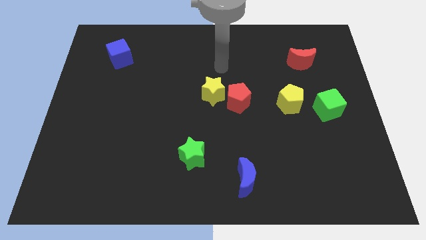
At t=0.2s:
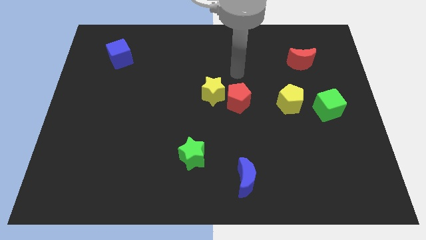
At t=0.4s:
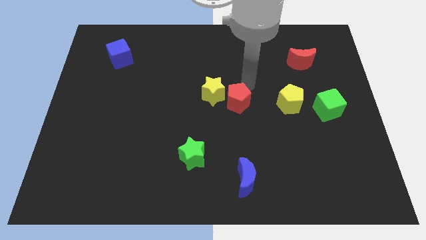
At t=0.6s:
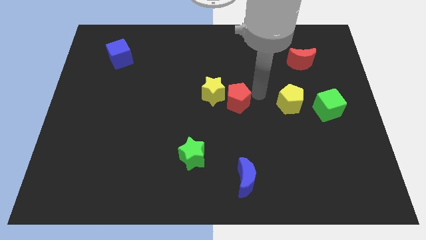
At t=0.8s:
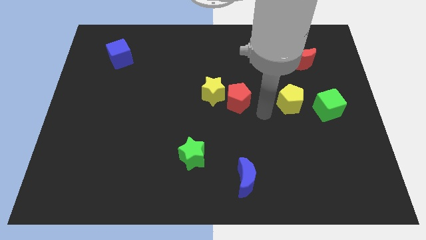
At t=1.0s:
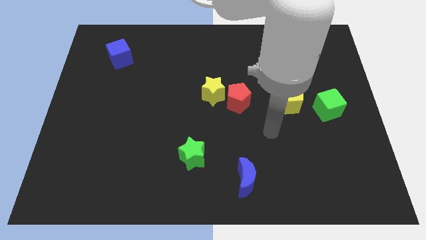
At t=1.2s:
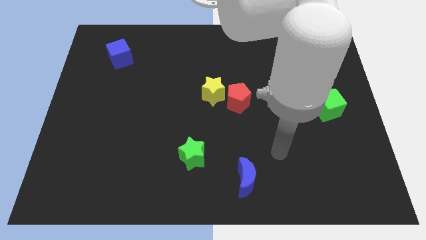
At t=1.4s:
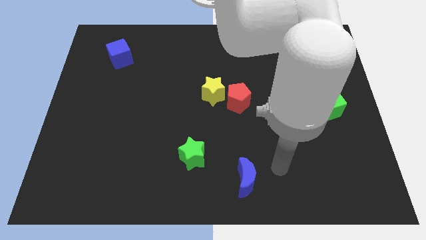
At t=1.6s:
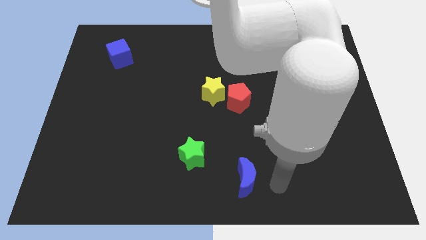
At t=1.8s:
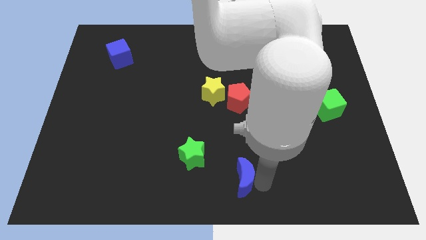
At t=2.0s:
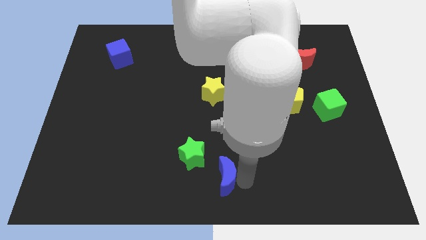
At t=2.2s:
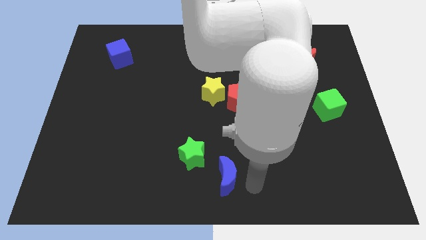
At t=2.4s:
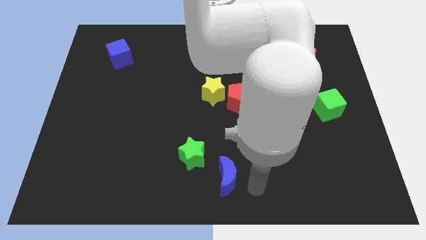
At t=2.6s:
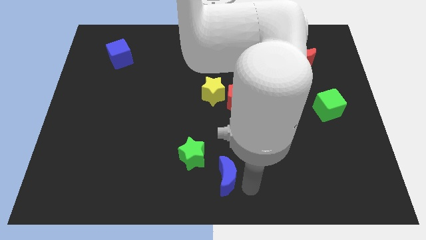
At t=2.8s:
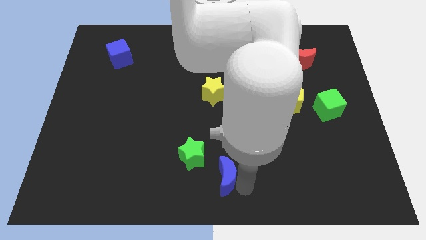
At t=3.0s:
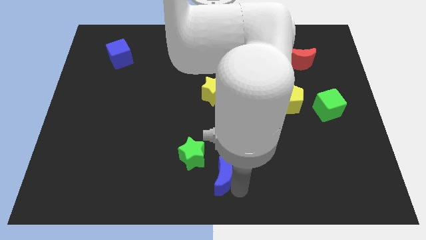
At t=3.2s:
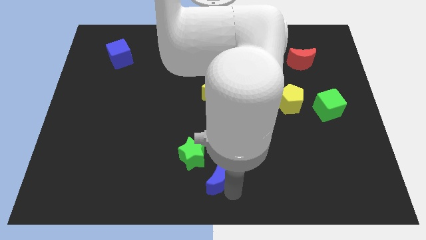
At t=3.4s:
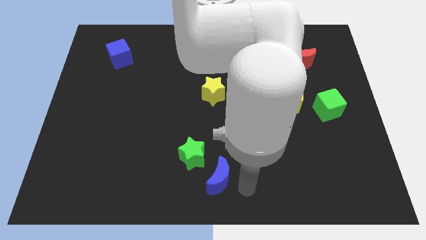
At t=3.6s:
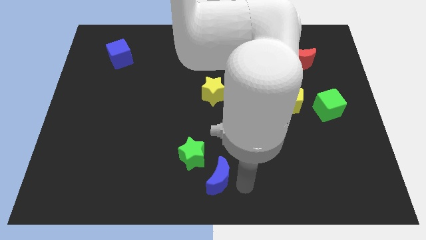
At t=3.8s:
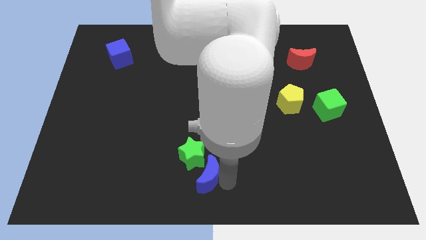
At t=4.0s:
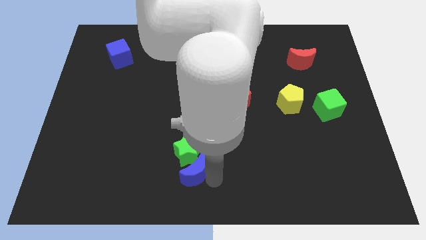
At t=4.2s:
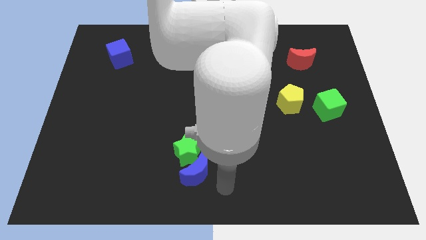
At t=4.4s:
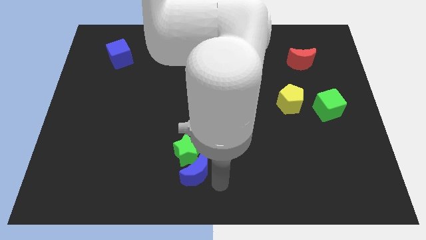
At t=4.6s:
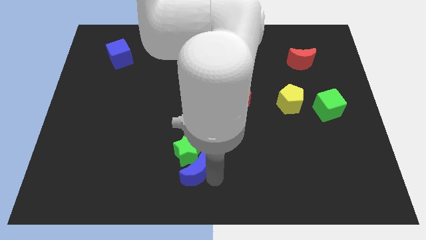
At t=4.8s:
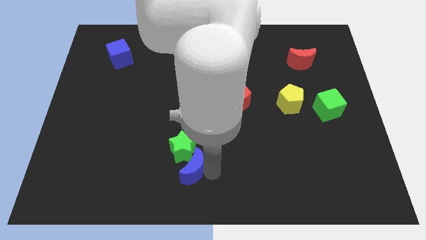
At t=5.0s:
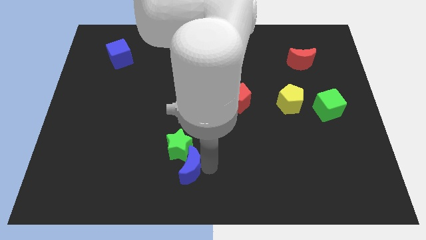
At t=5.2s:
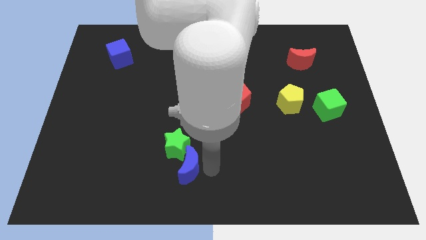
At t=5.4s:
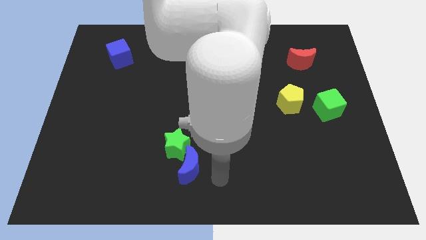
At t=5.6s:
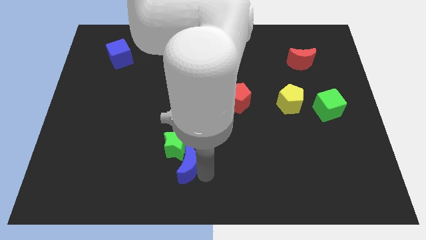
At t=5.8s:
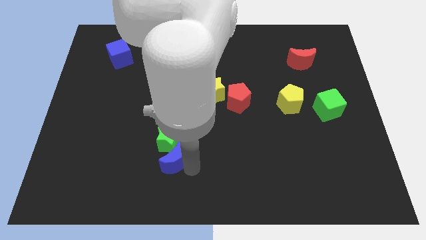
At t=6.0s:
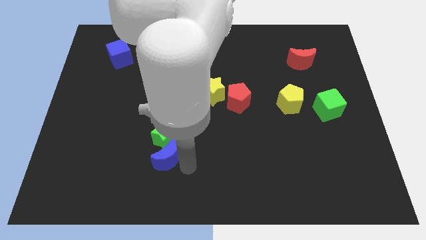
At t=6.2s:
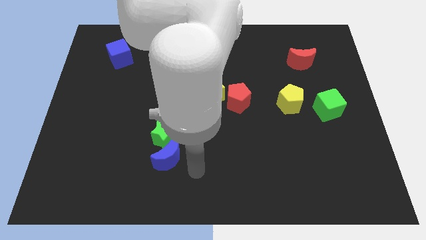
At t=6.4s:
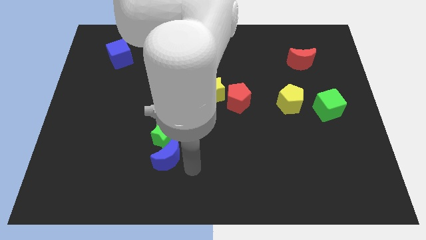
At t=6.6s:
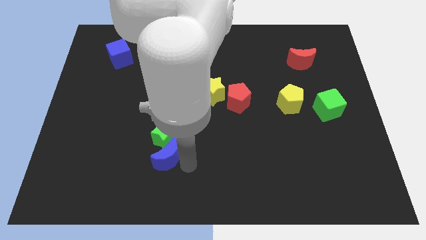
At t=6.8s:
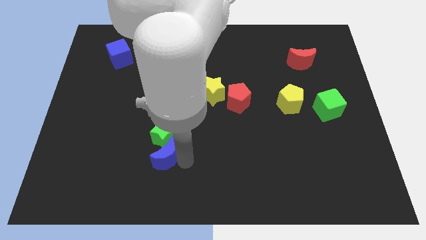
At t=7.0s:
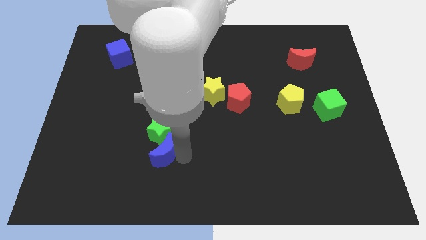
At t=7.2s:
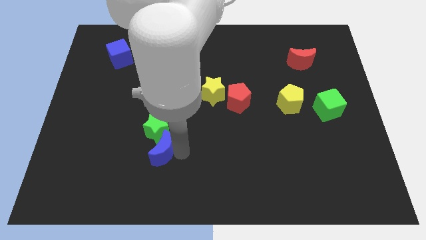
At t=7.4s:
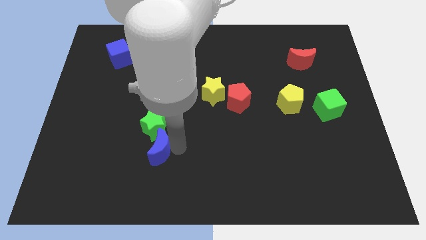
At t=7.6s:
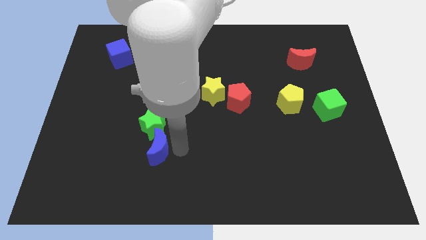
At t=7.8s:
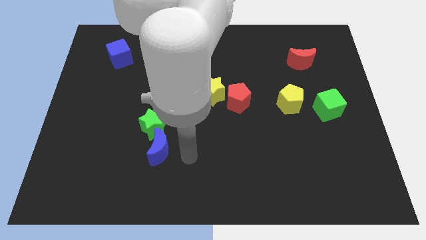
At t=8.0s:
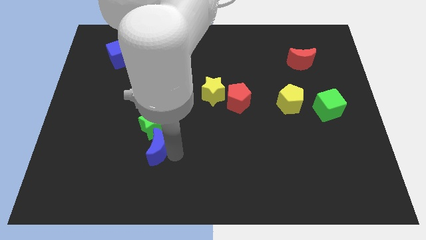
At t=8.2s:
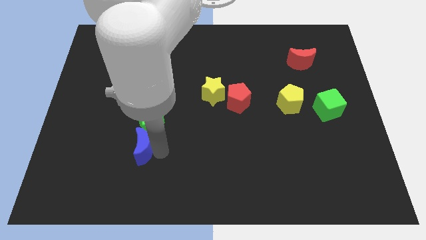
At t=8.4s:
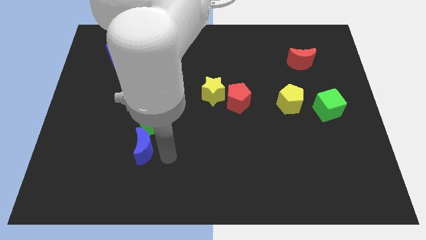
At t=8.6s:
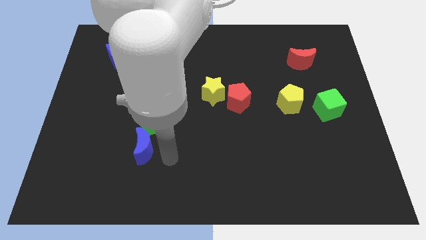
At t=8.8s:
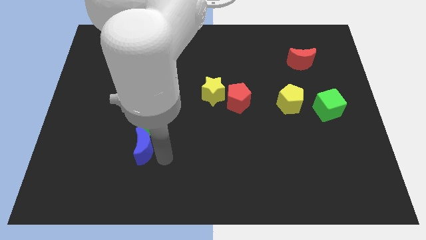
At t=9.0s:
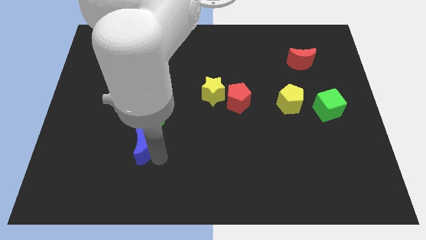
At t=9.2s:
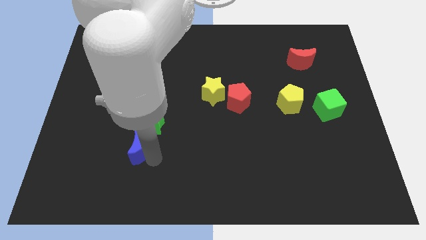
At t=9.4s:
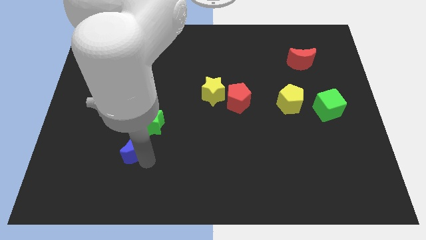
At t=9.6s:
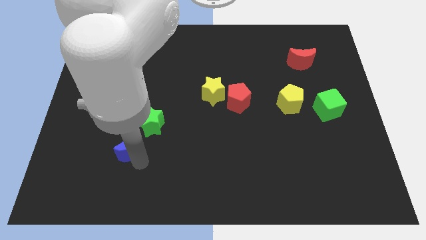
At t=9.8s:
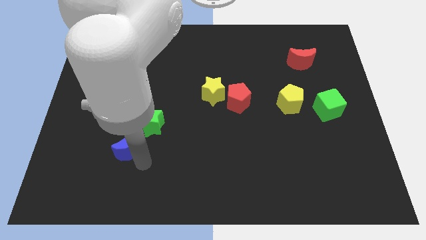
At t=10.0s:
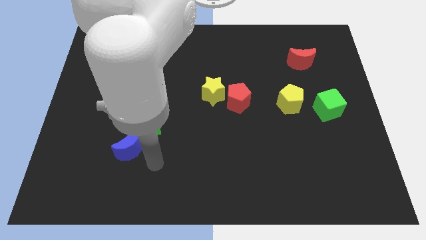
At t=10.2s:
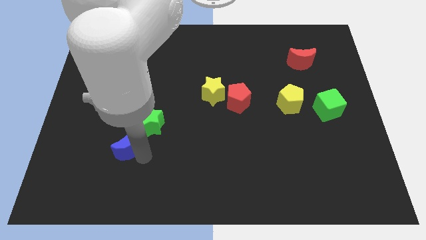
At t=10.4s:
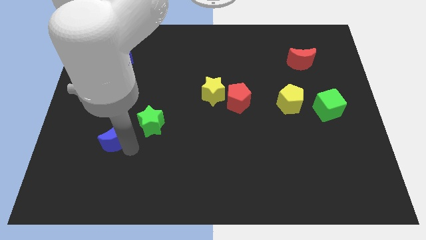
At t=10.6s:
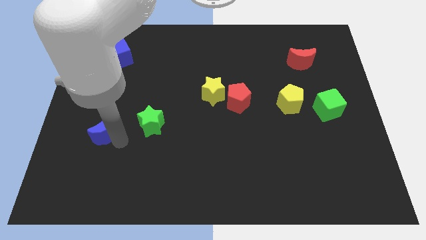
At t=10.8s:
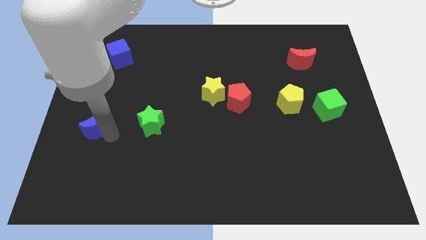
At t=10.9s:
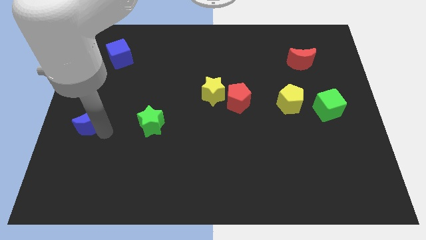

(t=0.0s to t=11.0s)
push the blue moon to the center left
